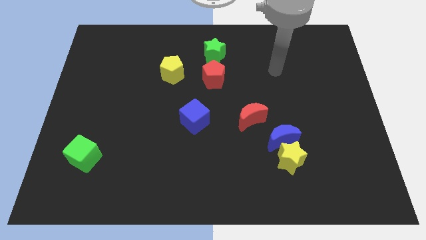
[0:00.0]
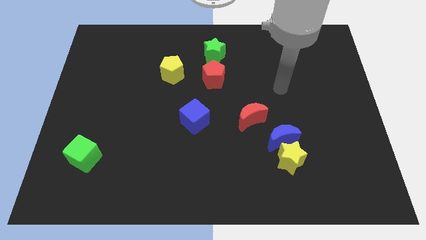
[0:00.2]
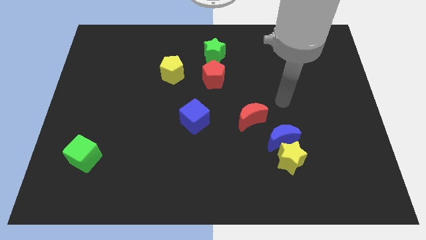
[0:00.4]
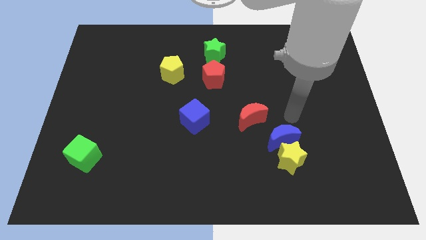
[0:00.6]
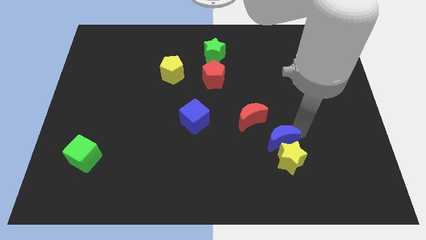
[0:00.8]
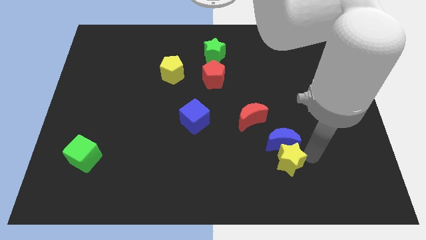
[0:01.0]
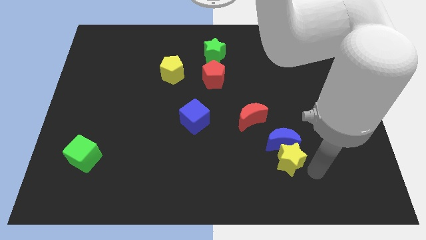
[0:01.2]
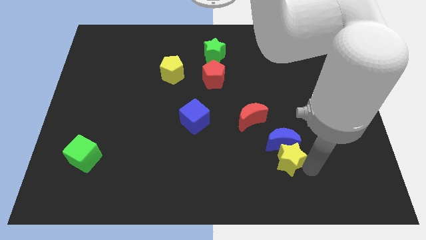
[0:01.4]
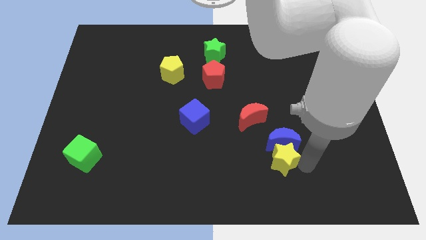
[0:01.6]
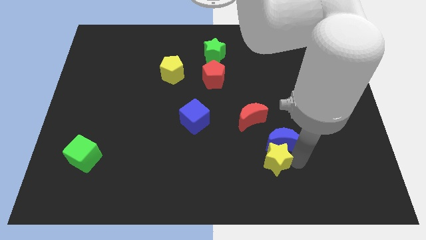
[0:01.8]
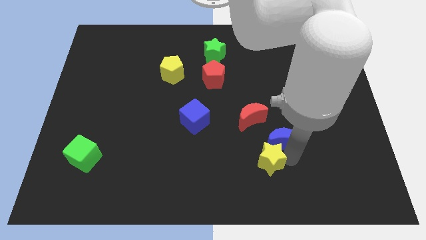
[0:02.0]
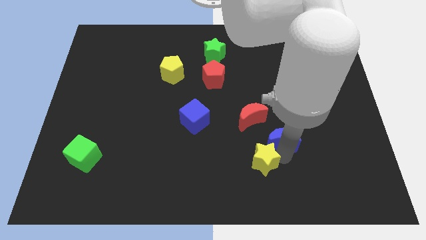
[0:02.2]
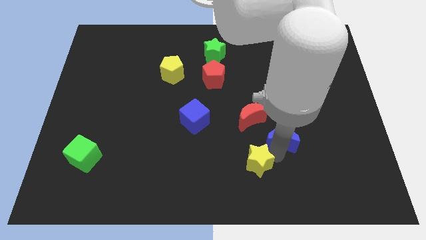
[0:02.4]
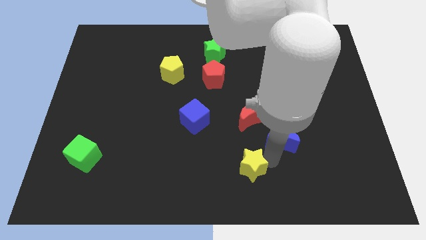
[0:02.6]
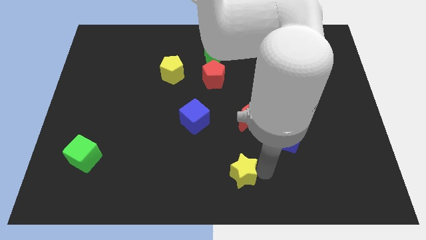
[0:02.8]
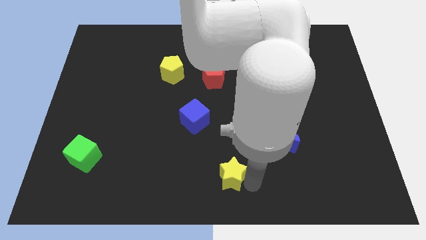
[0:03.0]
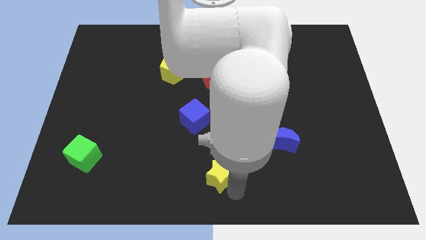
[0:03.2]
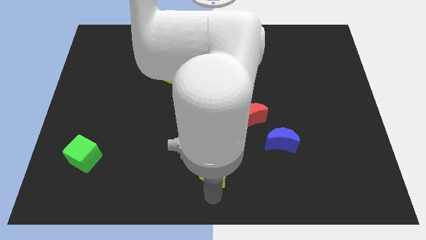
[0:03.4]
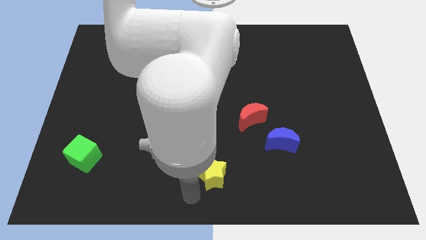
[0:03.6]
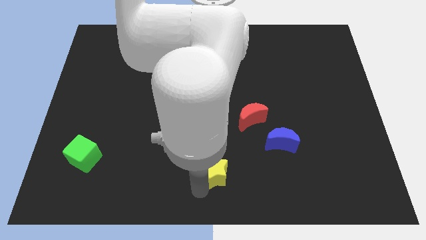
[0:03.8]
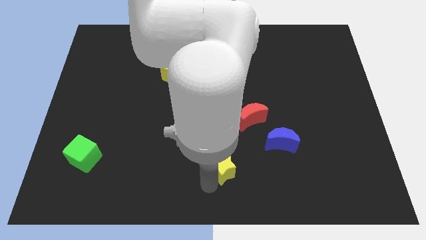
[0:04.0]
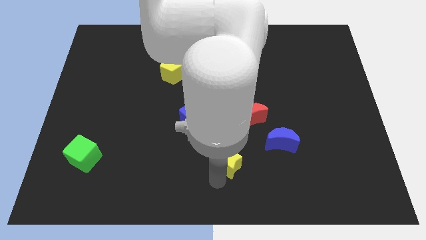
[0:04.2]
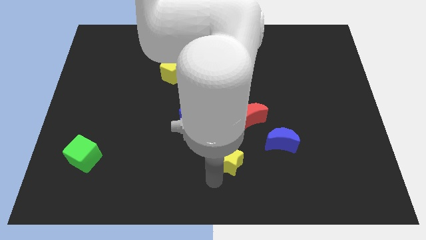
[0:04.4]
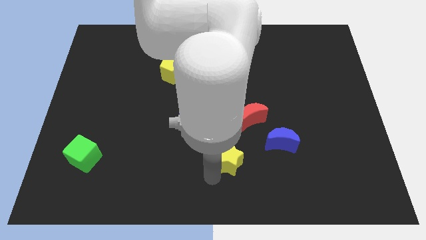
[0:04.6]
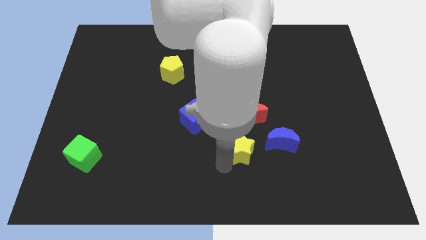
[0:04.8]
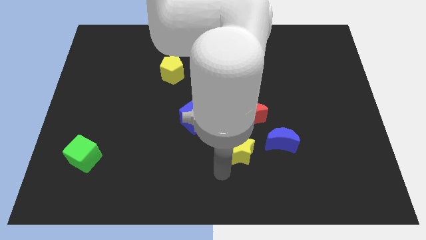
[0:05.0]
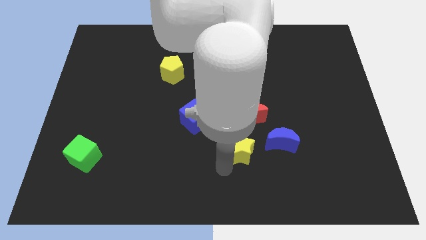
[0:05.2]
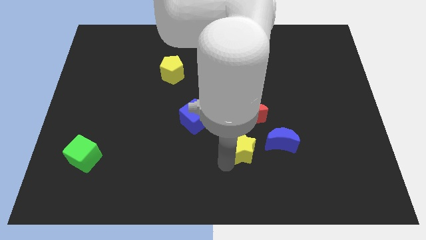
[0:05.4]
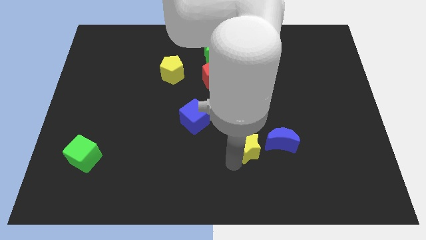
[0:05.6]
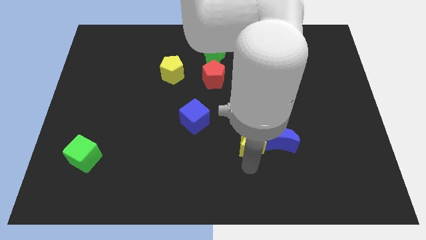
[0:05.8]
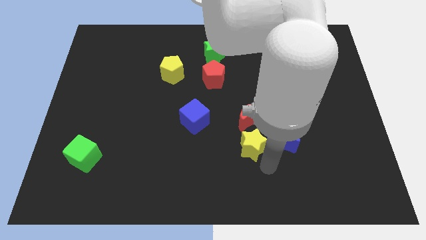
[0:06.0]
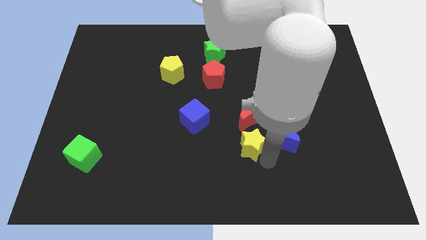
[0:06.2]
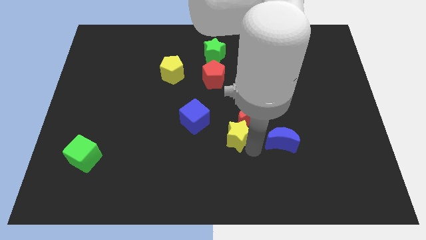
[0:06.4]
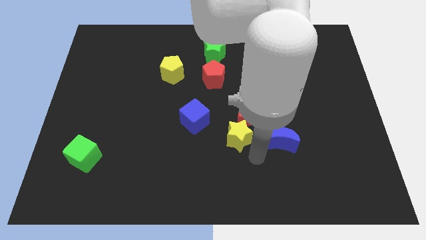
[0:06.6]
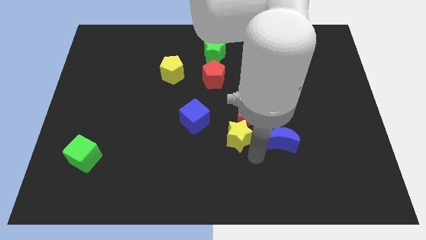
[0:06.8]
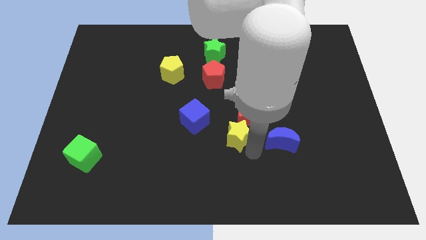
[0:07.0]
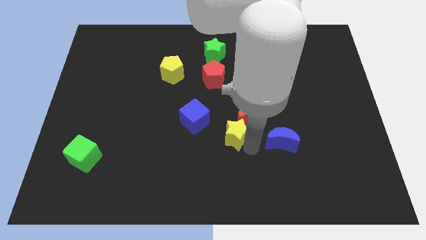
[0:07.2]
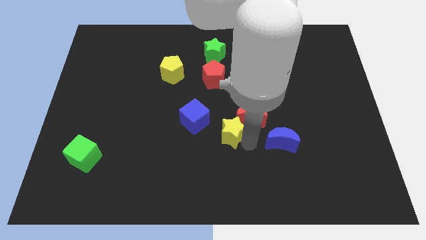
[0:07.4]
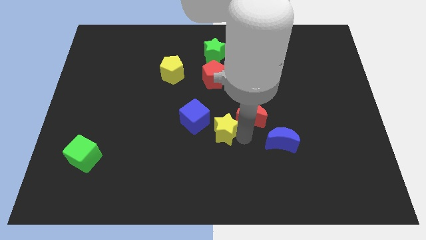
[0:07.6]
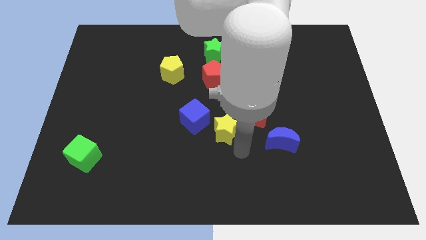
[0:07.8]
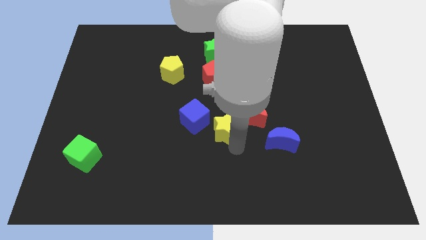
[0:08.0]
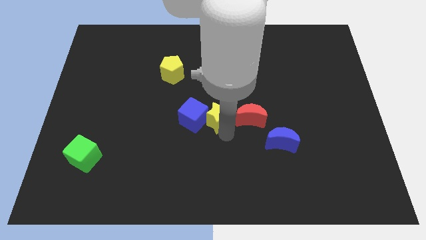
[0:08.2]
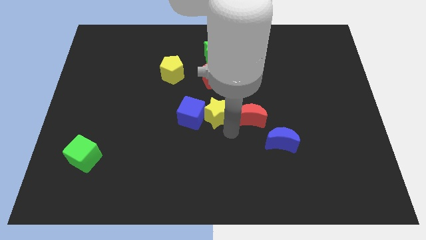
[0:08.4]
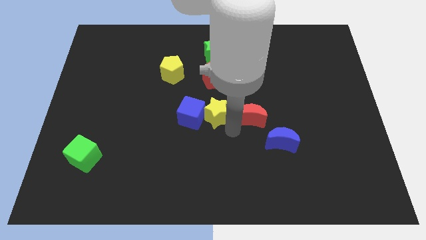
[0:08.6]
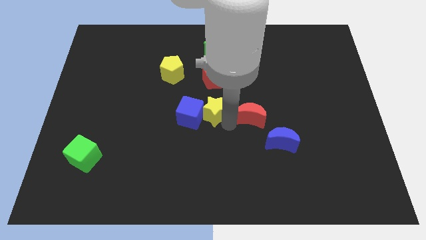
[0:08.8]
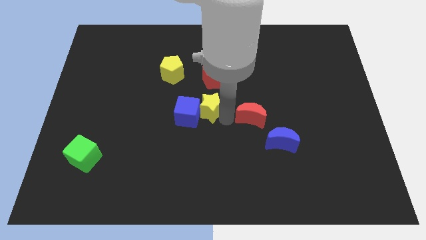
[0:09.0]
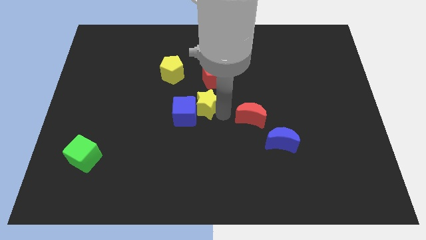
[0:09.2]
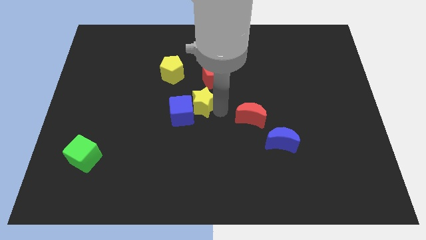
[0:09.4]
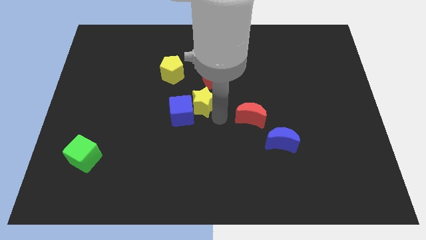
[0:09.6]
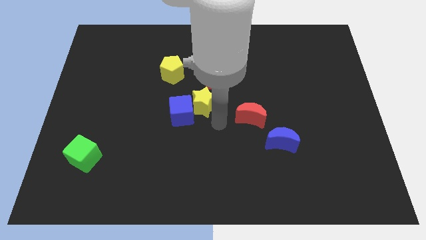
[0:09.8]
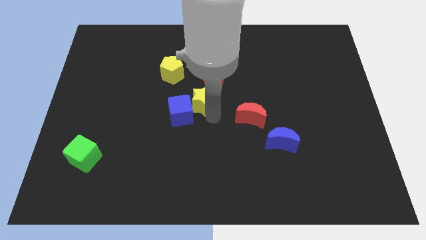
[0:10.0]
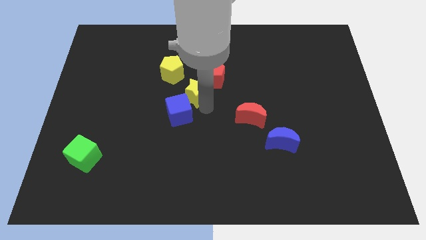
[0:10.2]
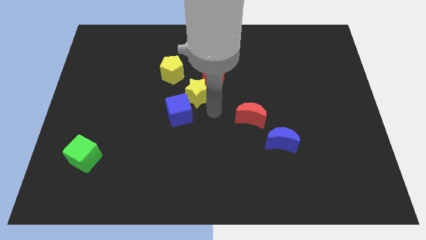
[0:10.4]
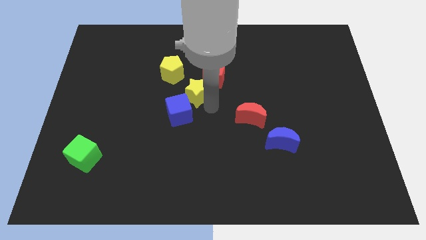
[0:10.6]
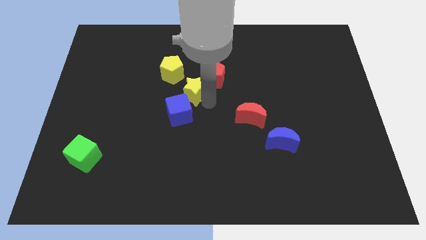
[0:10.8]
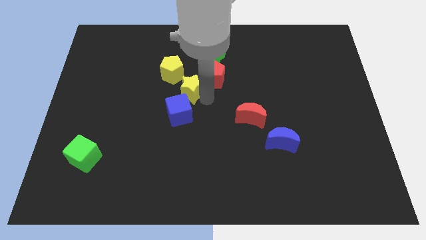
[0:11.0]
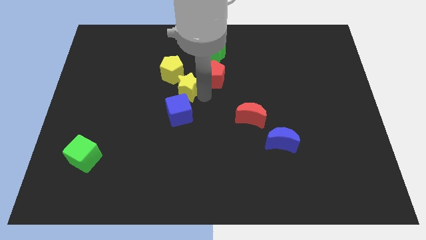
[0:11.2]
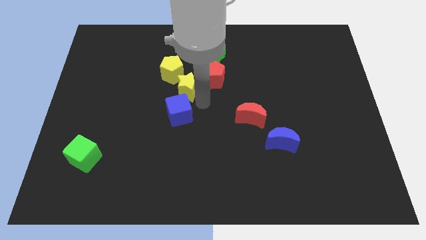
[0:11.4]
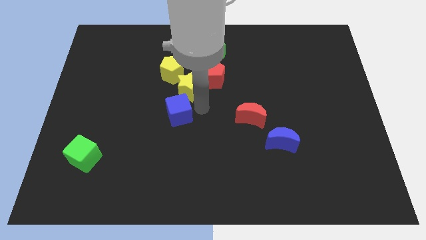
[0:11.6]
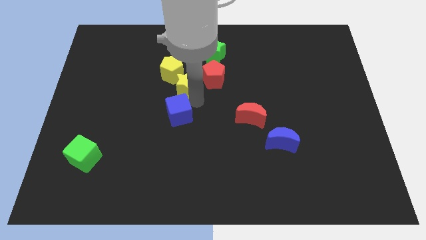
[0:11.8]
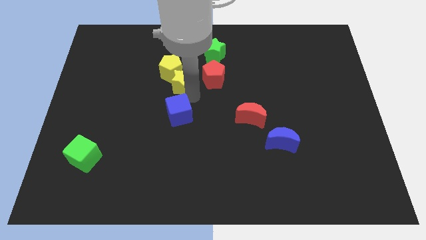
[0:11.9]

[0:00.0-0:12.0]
push the yellow star next to the yellow pentagon

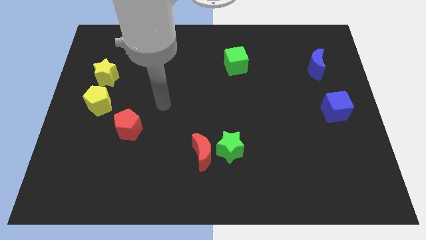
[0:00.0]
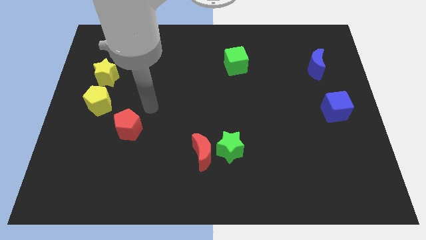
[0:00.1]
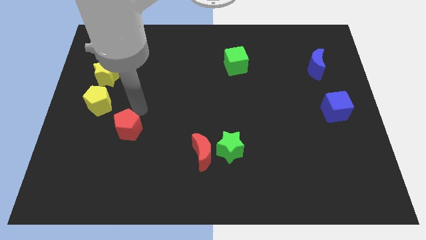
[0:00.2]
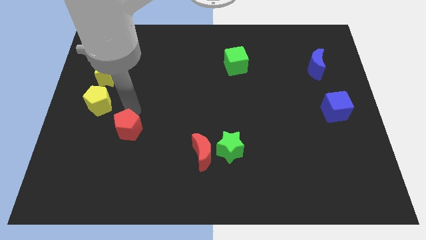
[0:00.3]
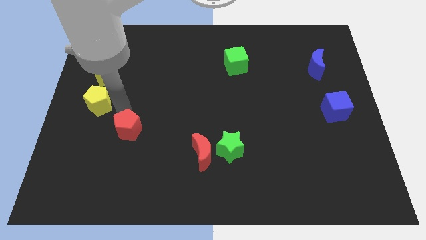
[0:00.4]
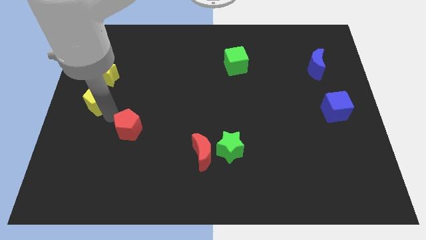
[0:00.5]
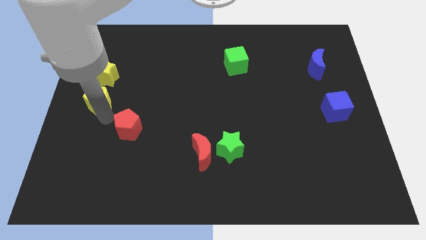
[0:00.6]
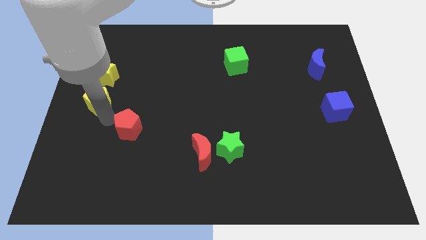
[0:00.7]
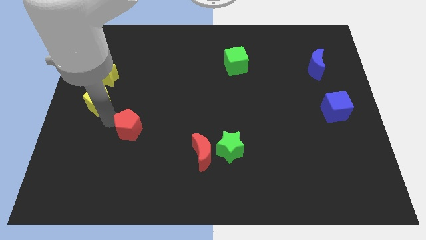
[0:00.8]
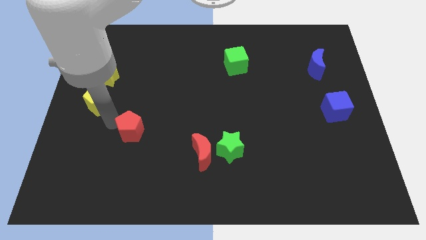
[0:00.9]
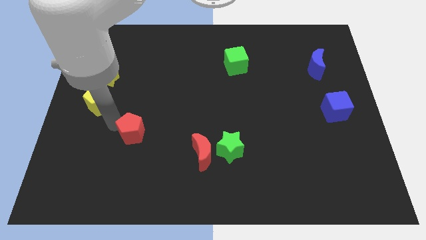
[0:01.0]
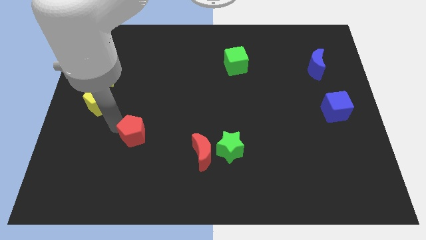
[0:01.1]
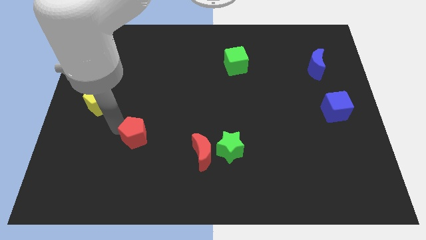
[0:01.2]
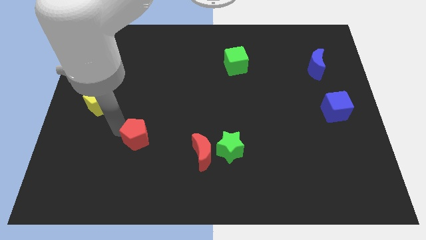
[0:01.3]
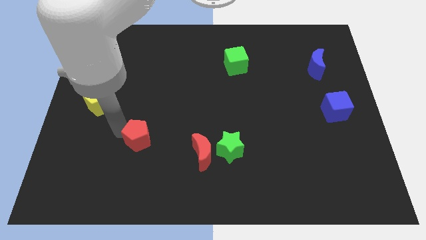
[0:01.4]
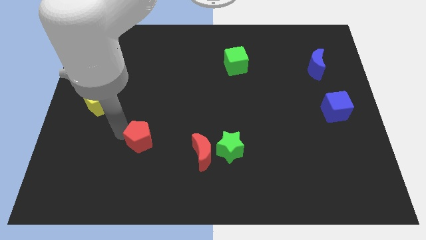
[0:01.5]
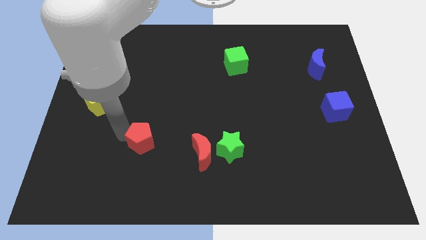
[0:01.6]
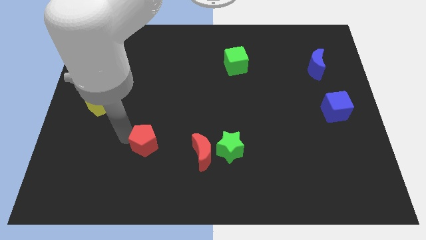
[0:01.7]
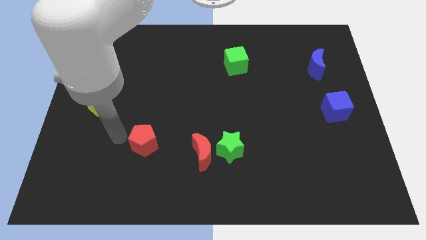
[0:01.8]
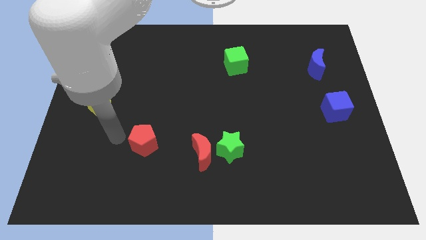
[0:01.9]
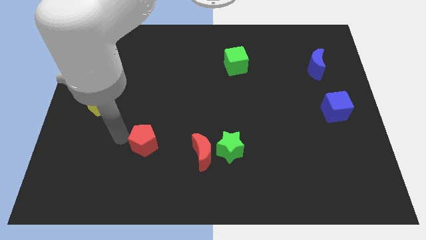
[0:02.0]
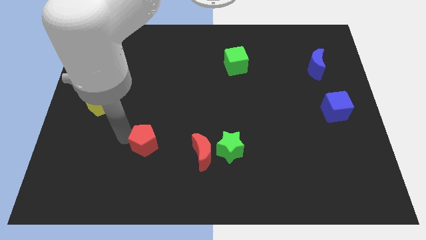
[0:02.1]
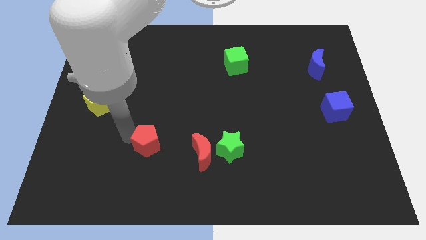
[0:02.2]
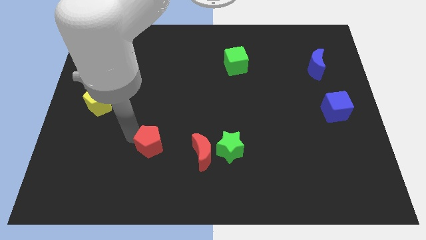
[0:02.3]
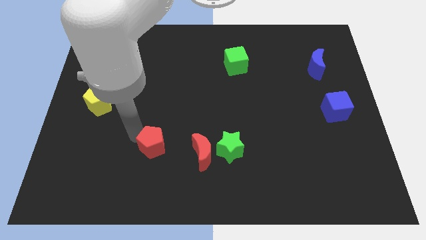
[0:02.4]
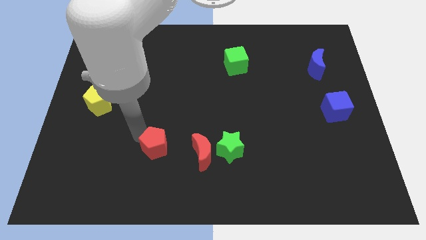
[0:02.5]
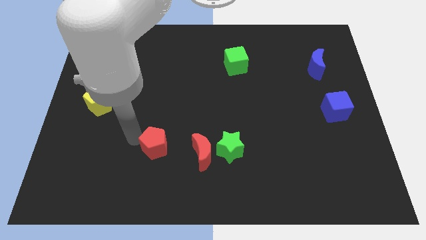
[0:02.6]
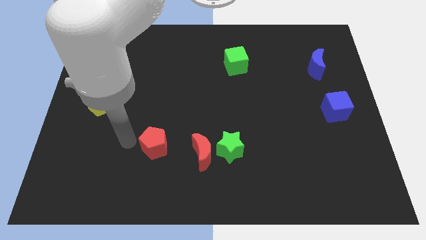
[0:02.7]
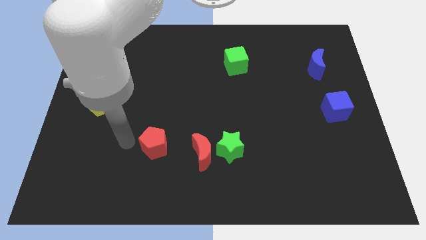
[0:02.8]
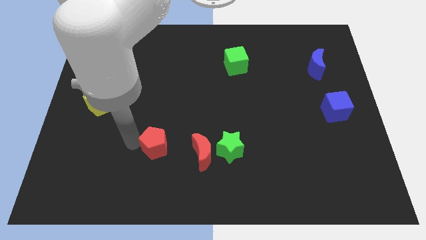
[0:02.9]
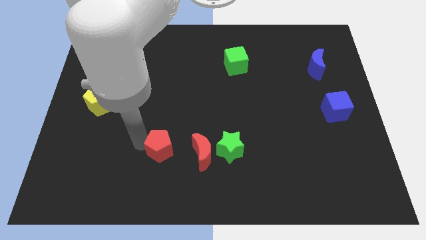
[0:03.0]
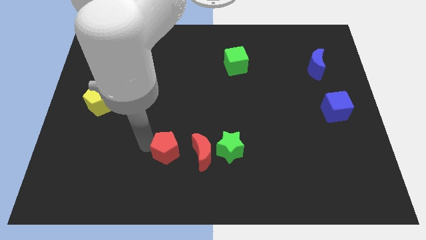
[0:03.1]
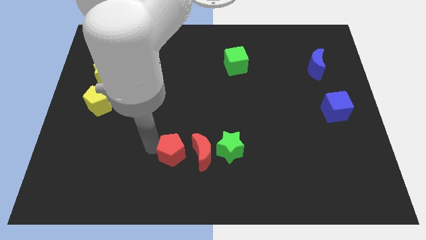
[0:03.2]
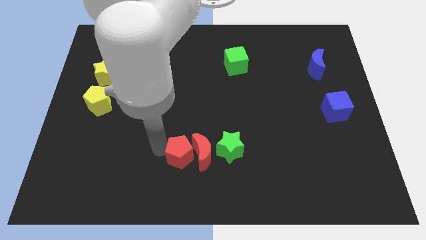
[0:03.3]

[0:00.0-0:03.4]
slide the red pentagon close to the red moon
